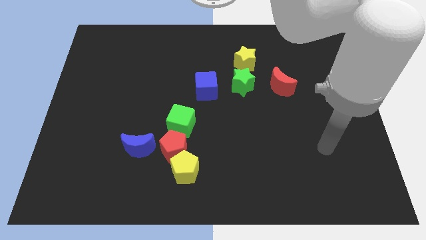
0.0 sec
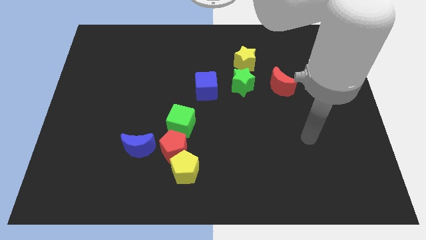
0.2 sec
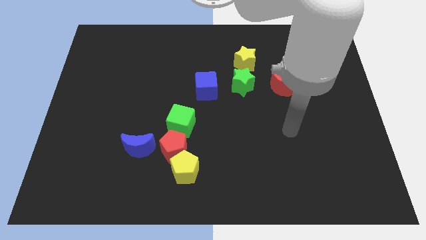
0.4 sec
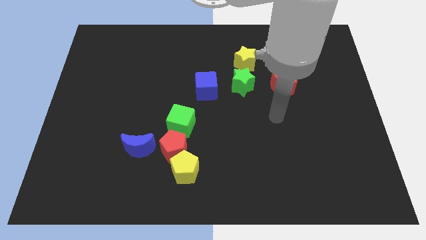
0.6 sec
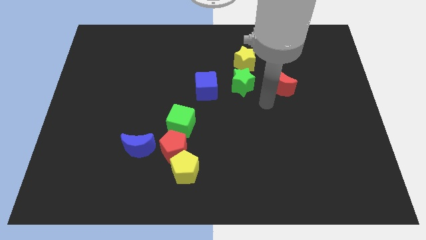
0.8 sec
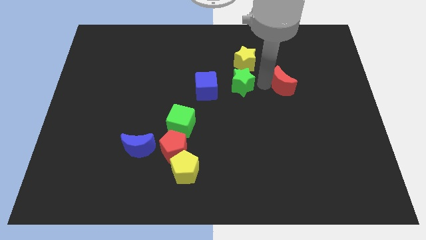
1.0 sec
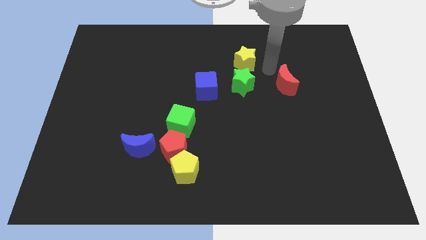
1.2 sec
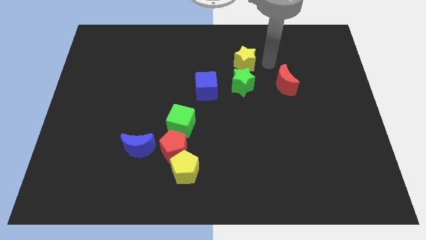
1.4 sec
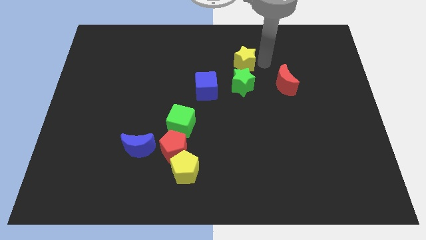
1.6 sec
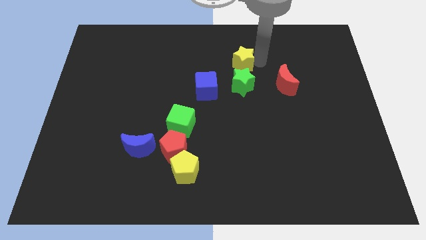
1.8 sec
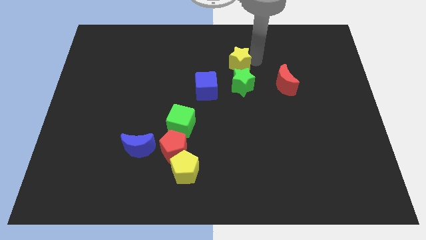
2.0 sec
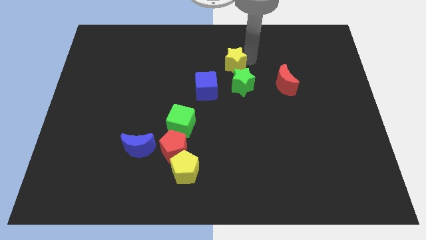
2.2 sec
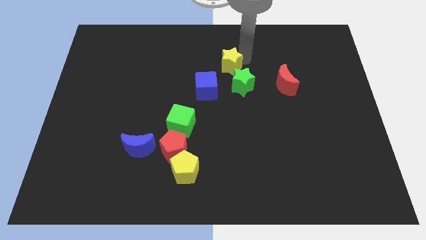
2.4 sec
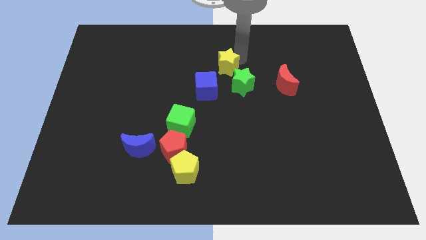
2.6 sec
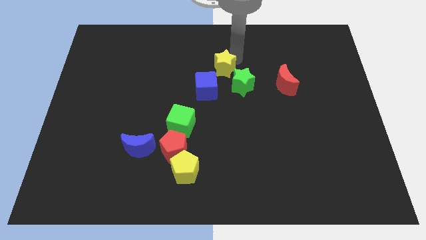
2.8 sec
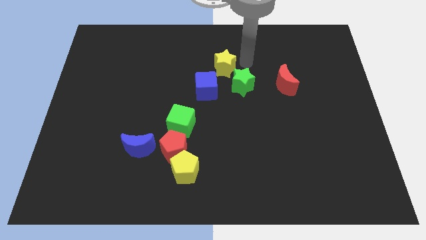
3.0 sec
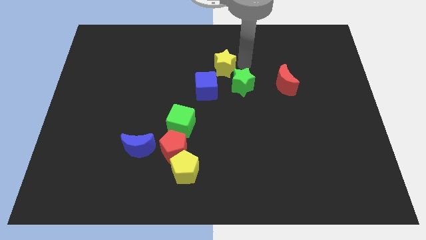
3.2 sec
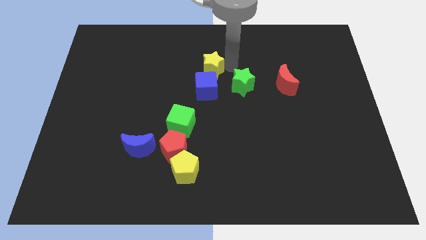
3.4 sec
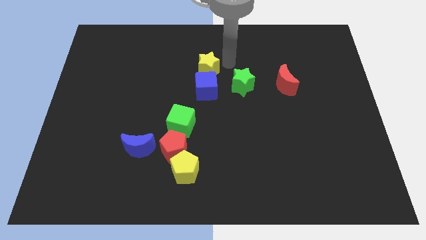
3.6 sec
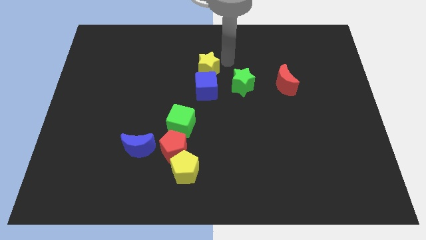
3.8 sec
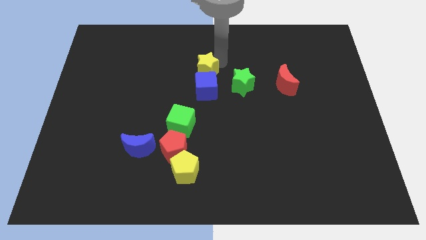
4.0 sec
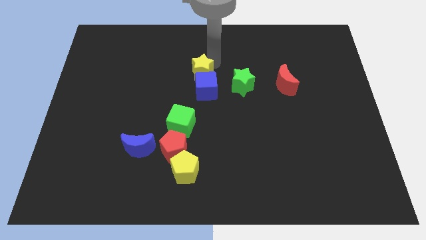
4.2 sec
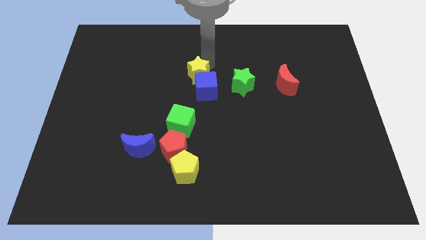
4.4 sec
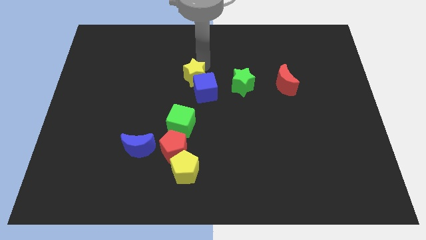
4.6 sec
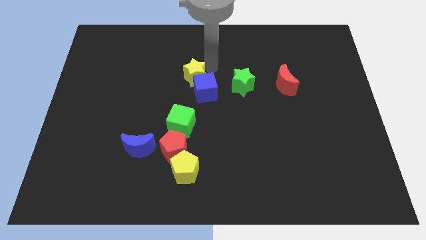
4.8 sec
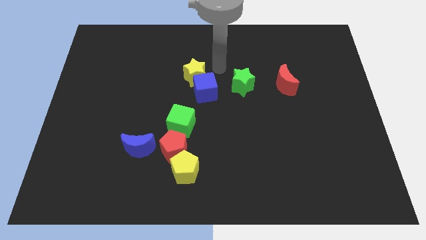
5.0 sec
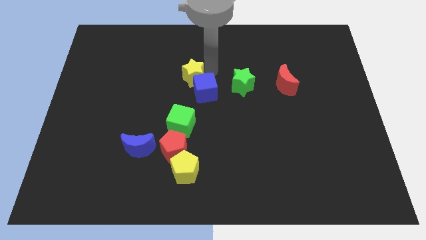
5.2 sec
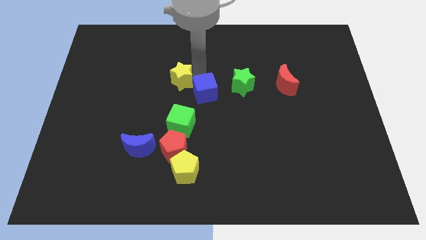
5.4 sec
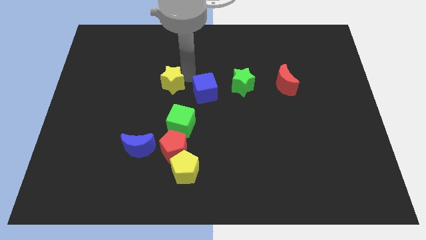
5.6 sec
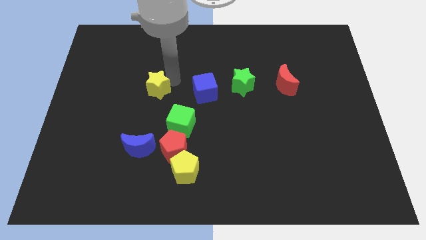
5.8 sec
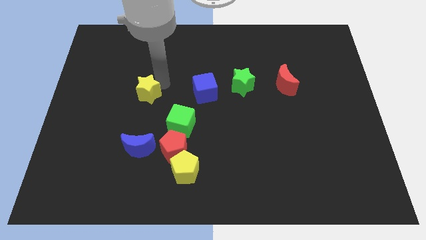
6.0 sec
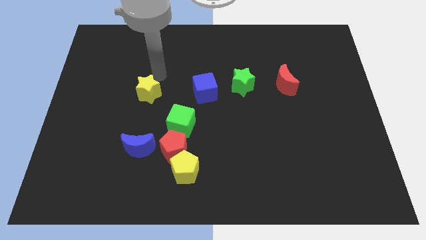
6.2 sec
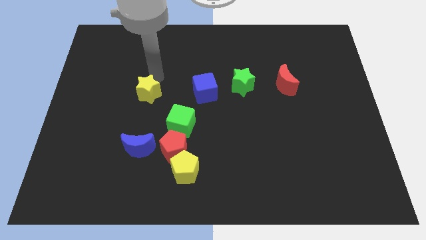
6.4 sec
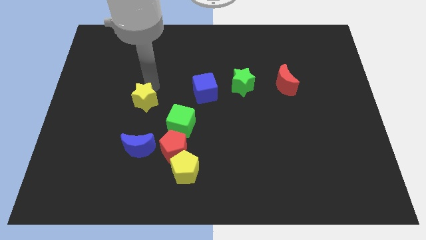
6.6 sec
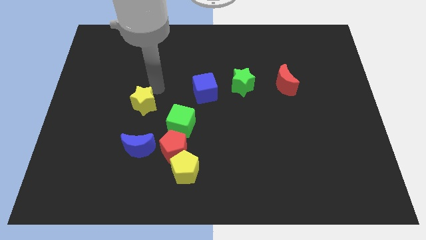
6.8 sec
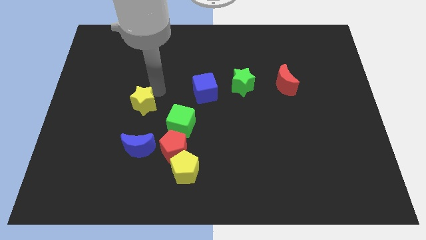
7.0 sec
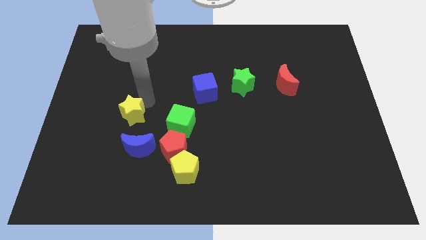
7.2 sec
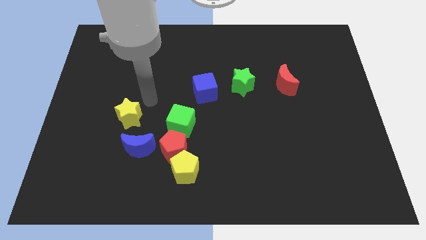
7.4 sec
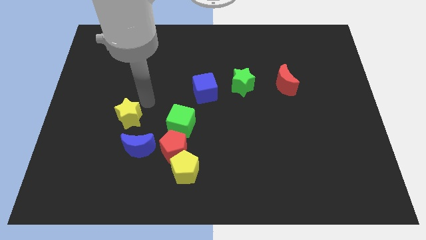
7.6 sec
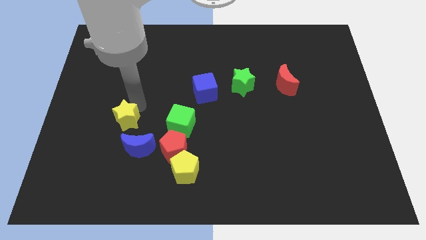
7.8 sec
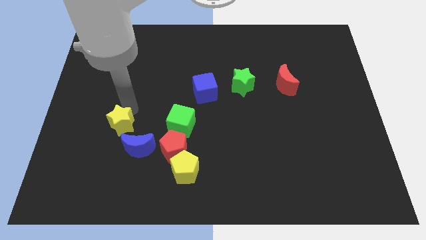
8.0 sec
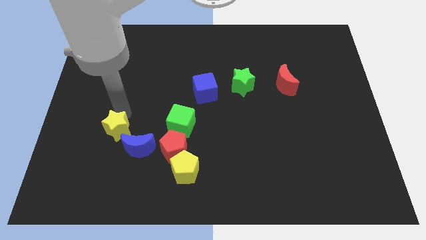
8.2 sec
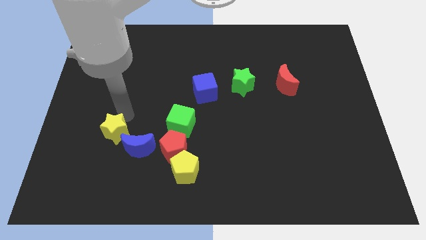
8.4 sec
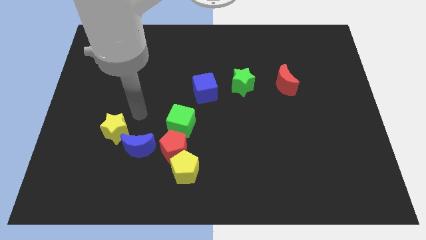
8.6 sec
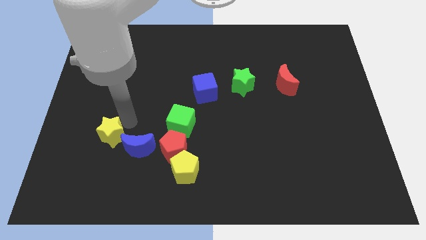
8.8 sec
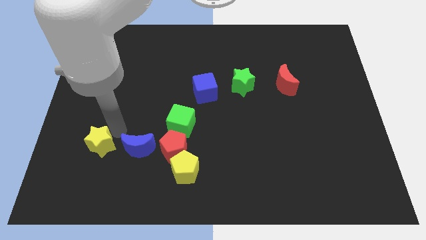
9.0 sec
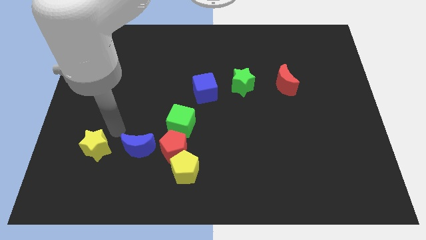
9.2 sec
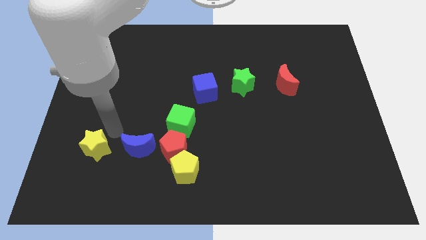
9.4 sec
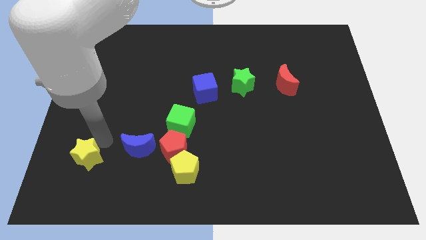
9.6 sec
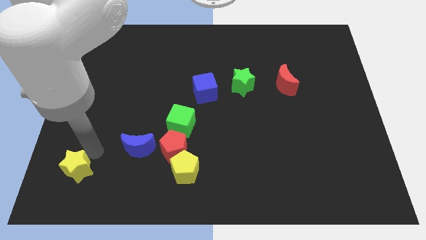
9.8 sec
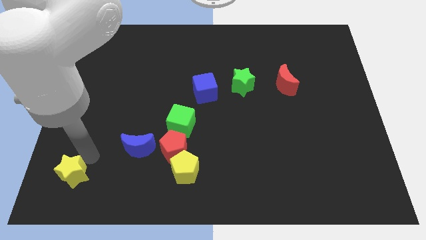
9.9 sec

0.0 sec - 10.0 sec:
push the yellow star to the bottom left of the board

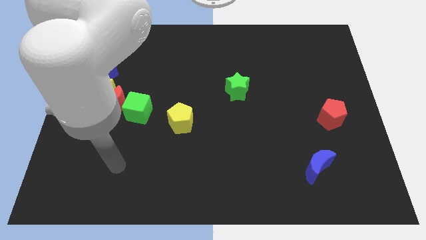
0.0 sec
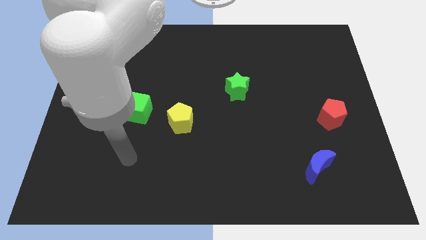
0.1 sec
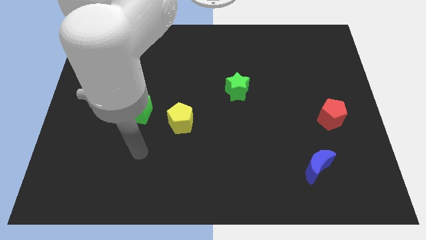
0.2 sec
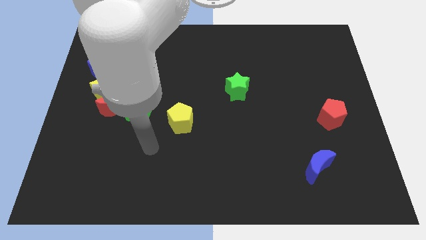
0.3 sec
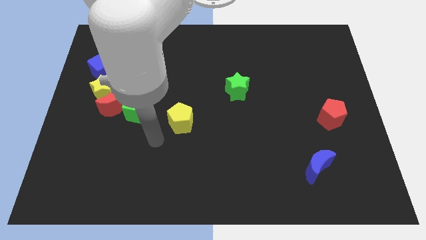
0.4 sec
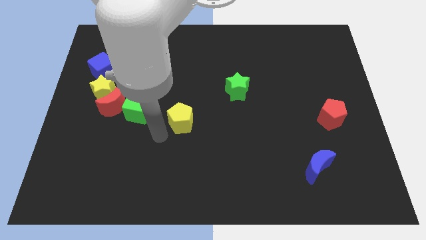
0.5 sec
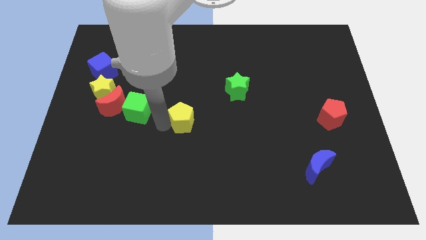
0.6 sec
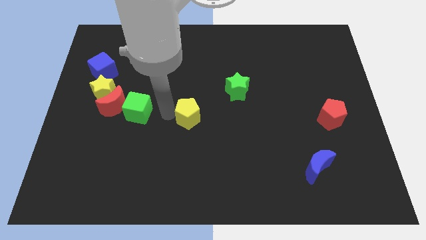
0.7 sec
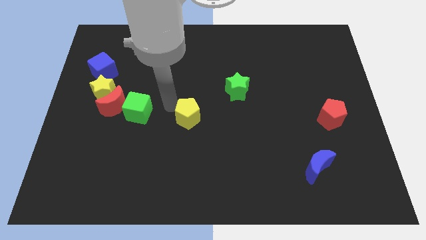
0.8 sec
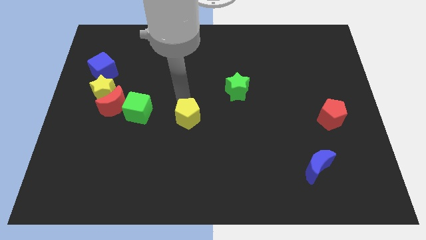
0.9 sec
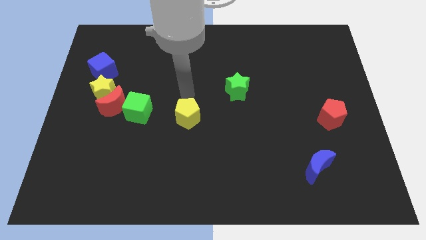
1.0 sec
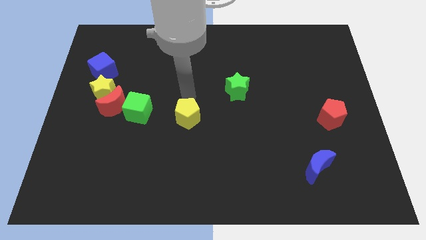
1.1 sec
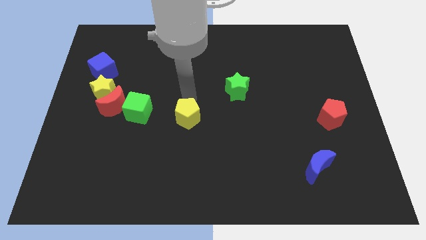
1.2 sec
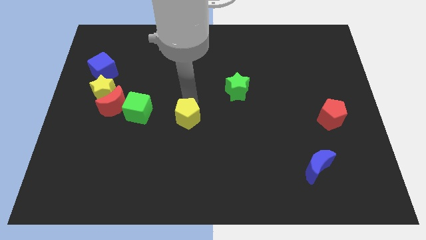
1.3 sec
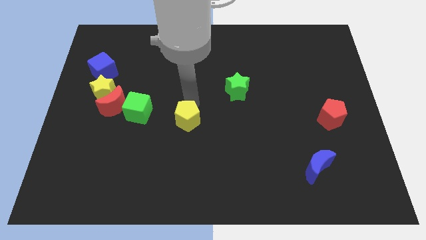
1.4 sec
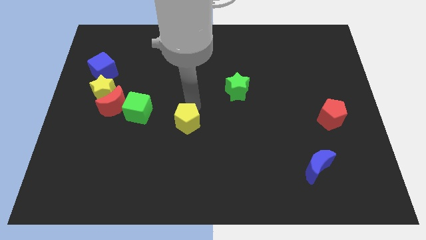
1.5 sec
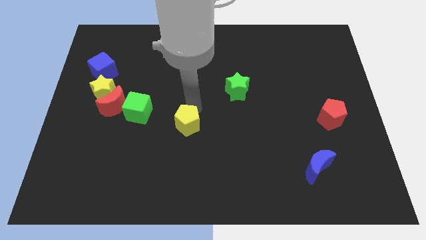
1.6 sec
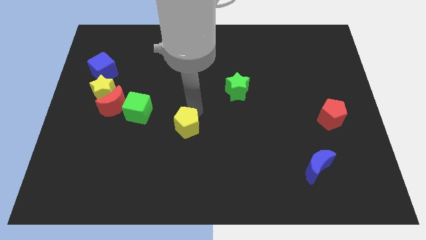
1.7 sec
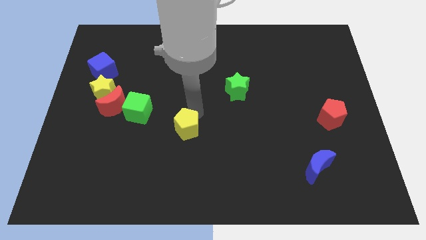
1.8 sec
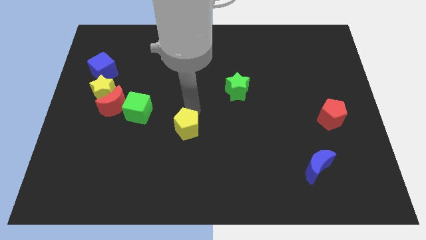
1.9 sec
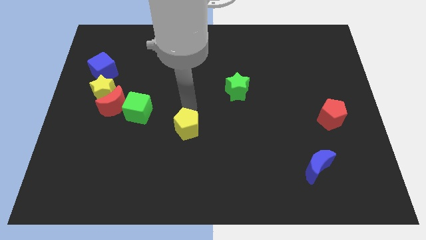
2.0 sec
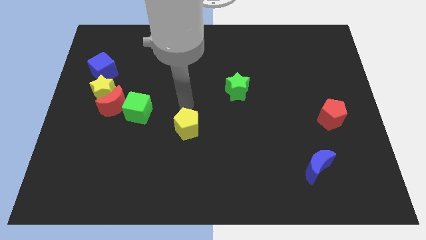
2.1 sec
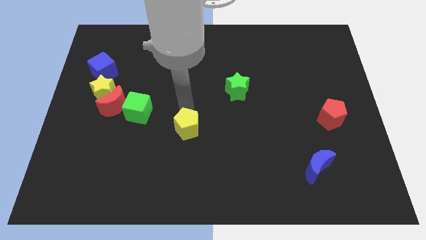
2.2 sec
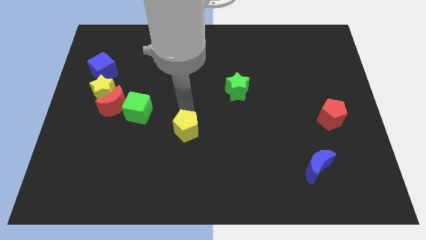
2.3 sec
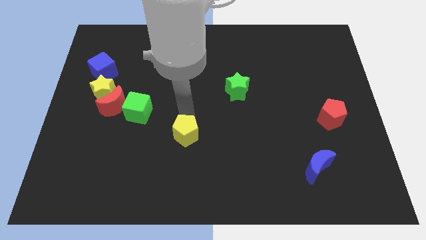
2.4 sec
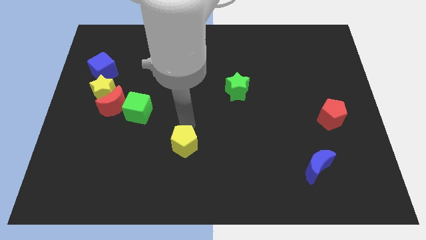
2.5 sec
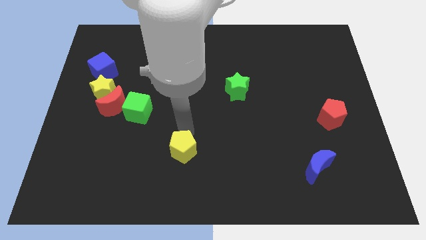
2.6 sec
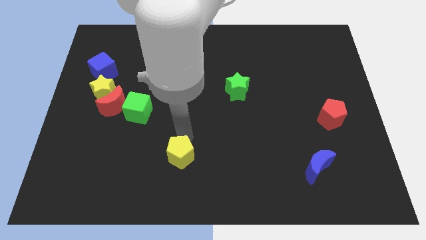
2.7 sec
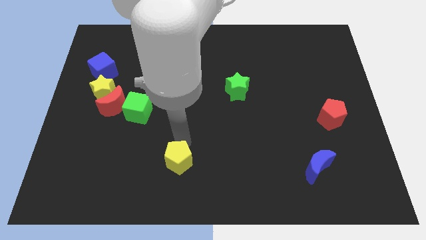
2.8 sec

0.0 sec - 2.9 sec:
push the yellow pentagon to the bottom side
